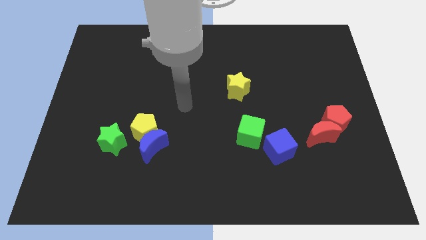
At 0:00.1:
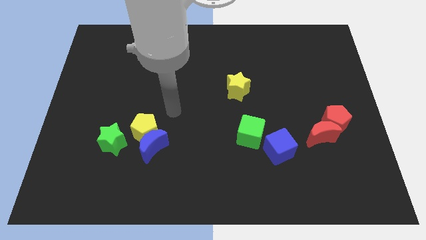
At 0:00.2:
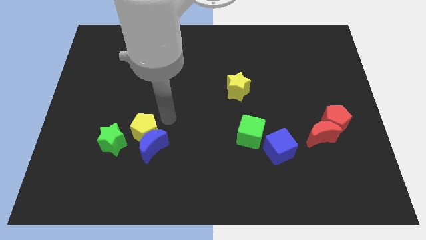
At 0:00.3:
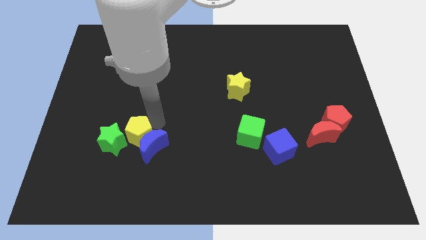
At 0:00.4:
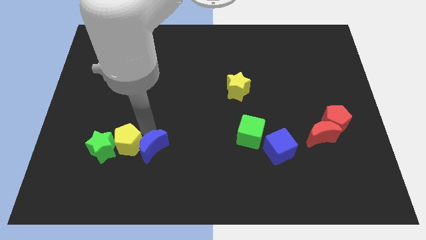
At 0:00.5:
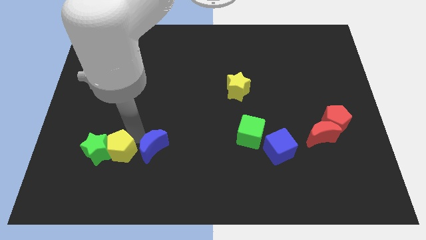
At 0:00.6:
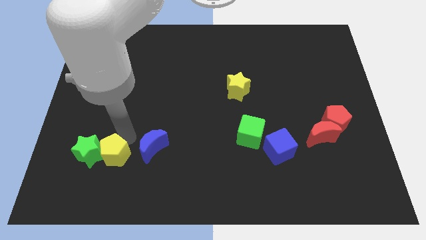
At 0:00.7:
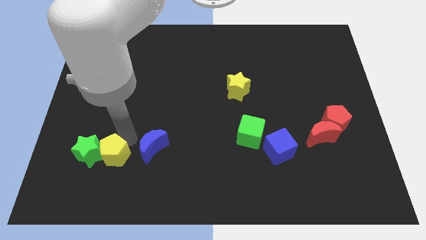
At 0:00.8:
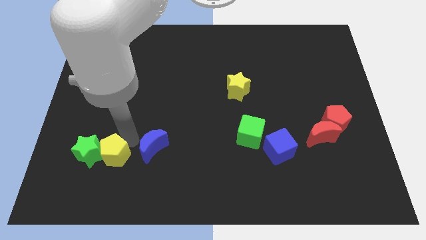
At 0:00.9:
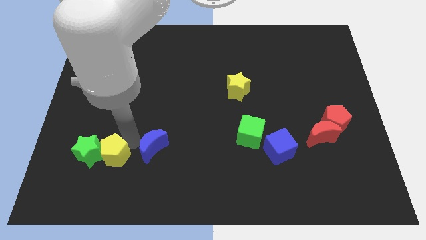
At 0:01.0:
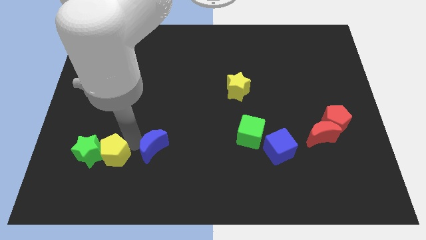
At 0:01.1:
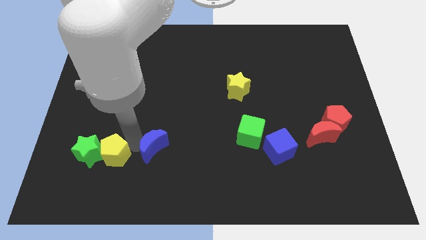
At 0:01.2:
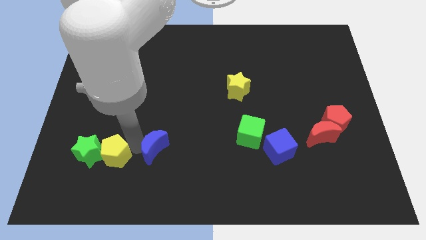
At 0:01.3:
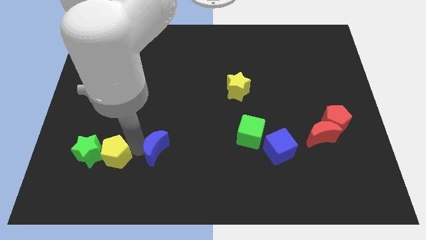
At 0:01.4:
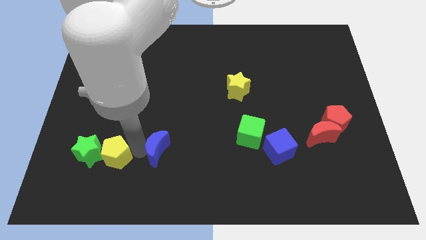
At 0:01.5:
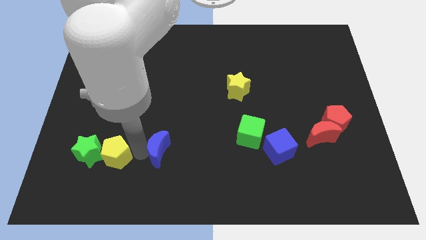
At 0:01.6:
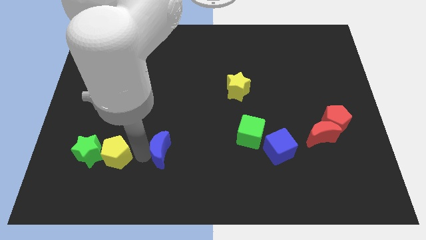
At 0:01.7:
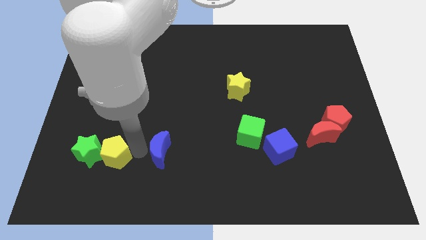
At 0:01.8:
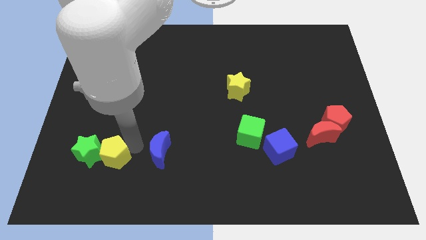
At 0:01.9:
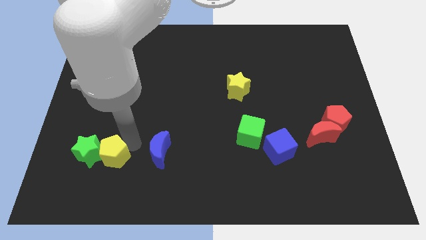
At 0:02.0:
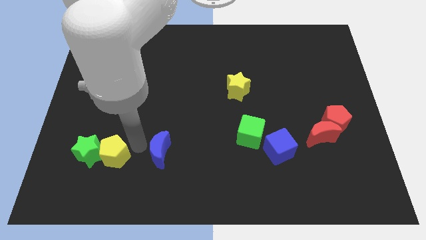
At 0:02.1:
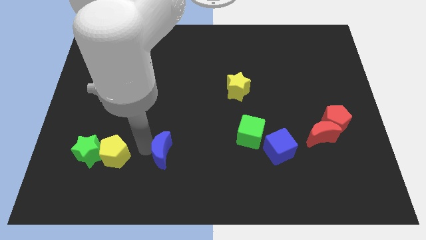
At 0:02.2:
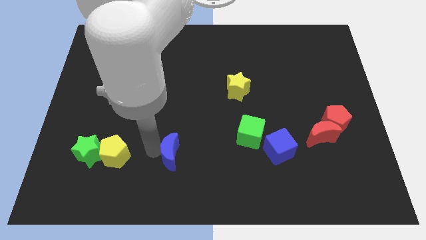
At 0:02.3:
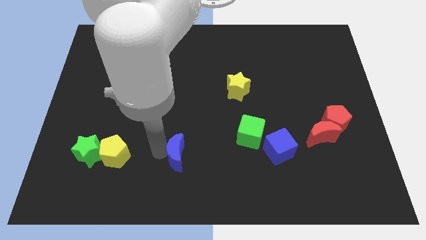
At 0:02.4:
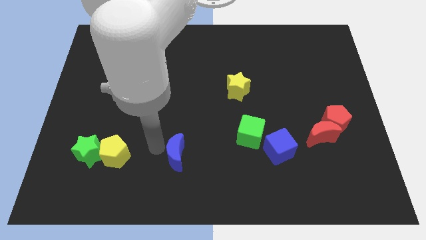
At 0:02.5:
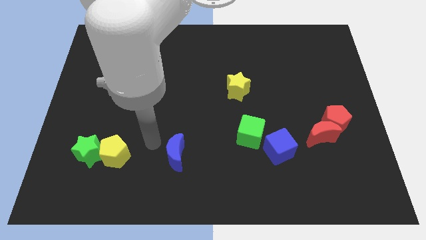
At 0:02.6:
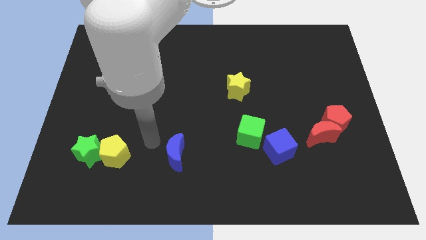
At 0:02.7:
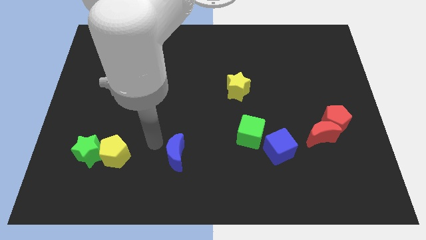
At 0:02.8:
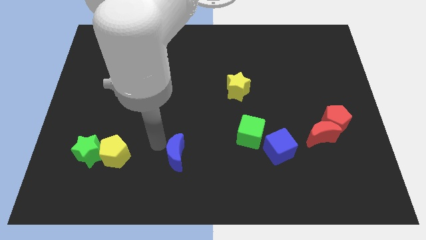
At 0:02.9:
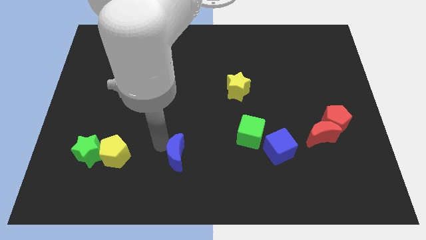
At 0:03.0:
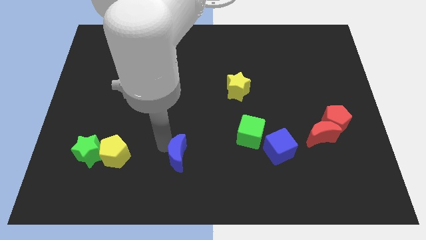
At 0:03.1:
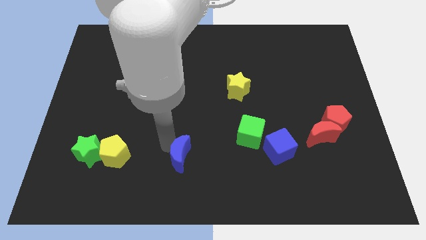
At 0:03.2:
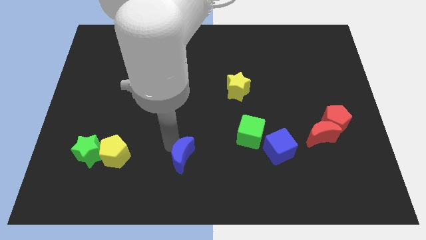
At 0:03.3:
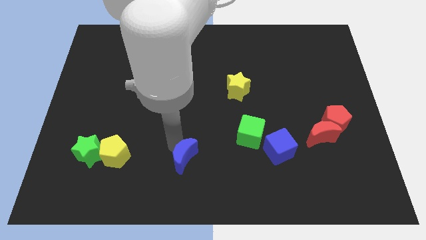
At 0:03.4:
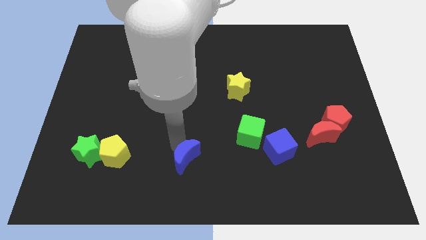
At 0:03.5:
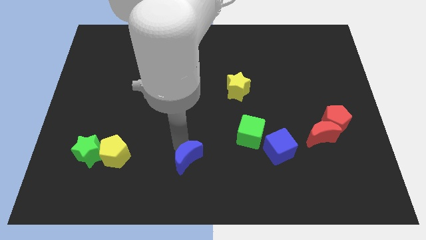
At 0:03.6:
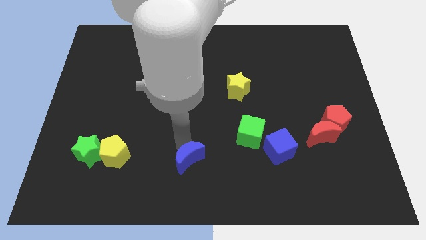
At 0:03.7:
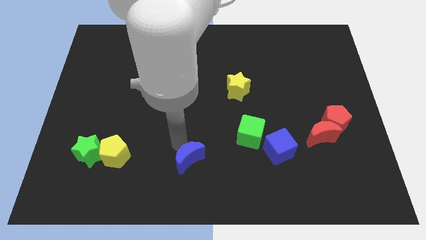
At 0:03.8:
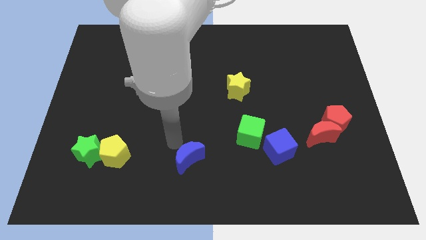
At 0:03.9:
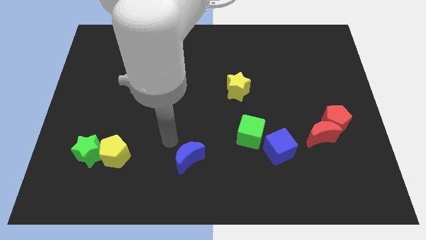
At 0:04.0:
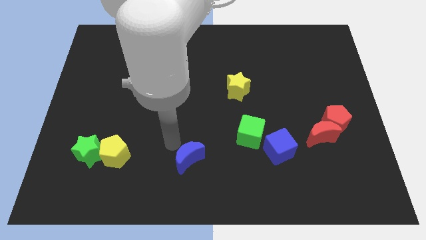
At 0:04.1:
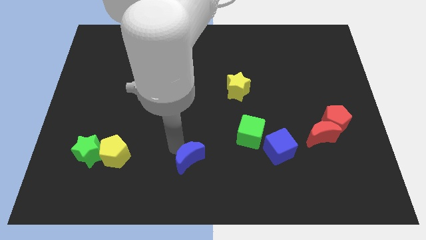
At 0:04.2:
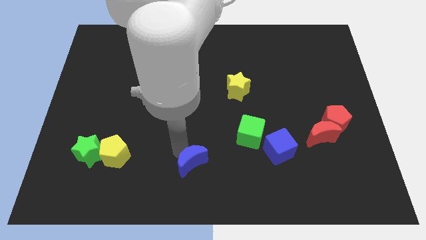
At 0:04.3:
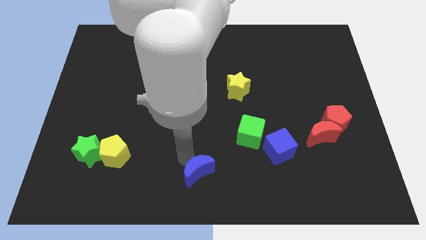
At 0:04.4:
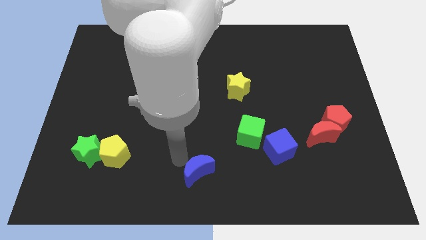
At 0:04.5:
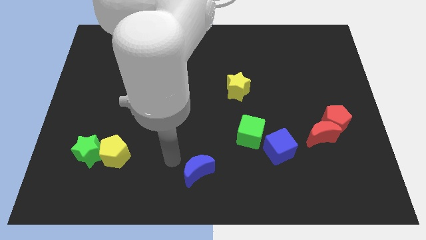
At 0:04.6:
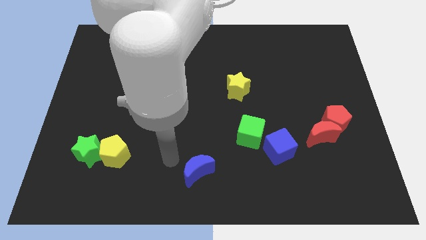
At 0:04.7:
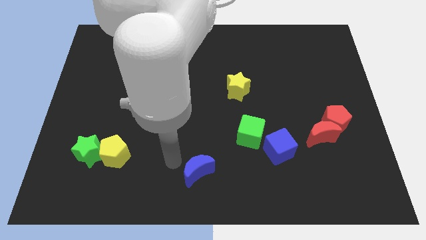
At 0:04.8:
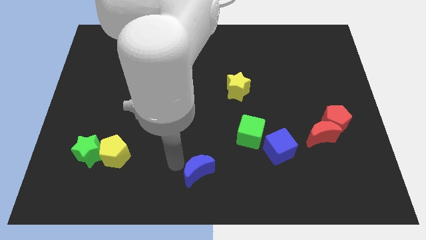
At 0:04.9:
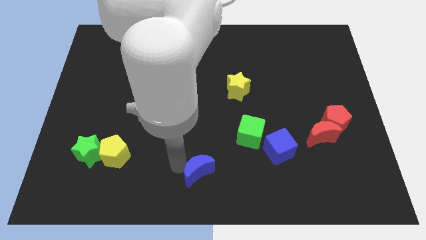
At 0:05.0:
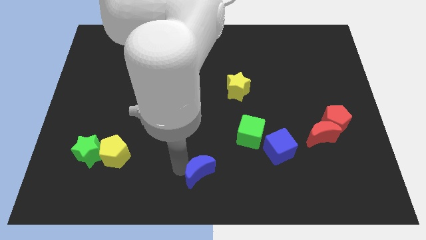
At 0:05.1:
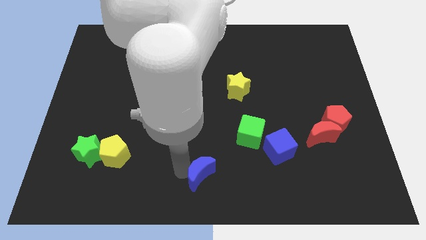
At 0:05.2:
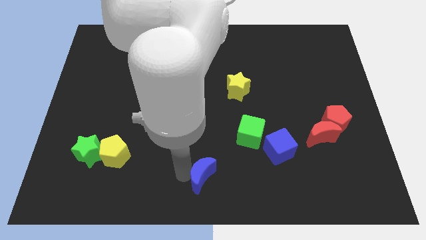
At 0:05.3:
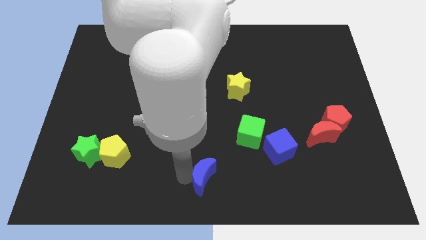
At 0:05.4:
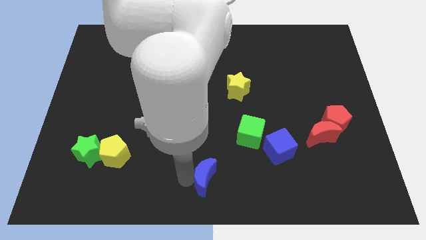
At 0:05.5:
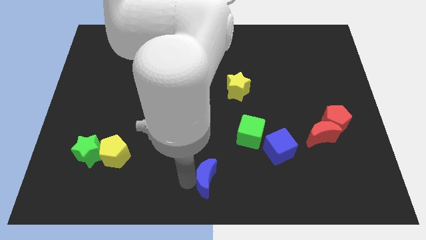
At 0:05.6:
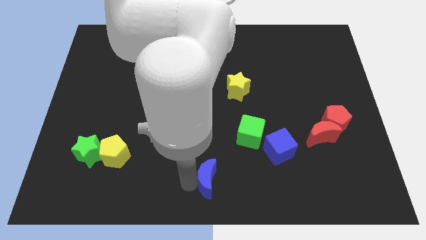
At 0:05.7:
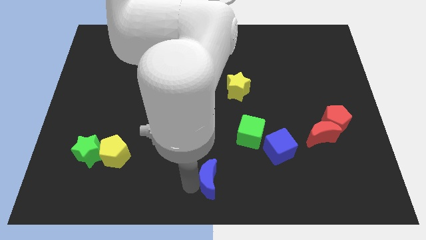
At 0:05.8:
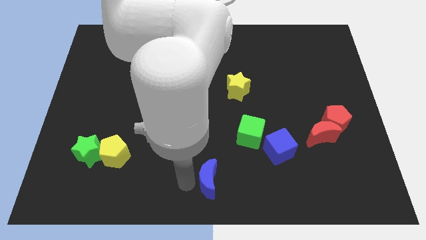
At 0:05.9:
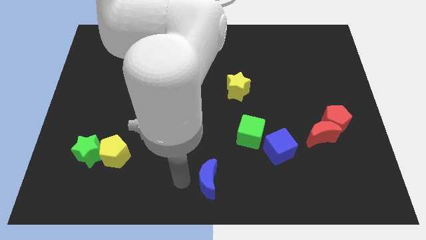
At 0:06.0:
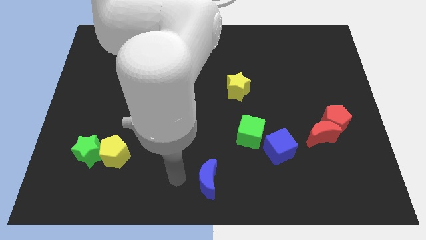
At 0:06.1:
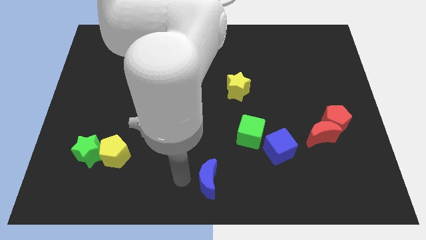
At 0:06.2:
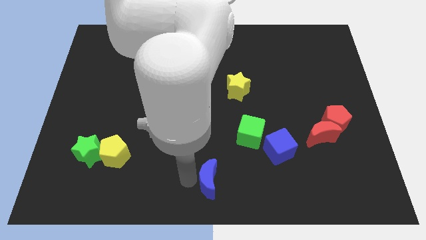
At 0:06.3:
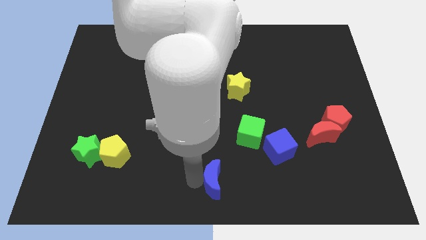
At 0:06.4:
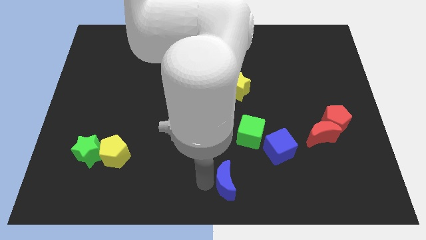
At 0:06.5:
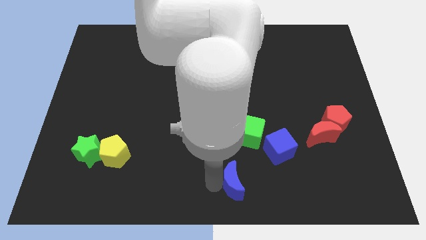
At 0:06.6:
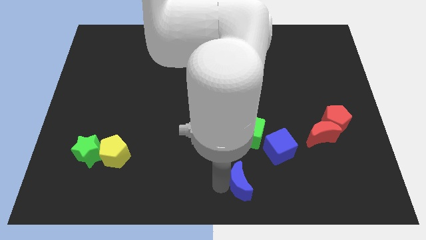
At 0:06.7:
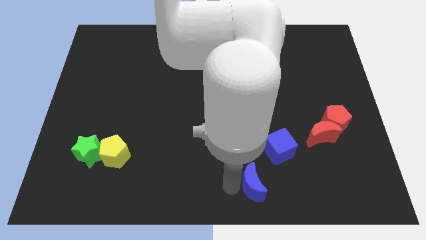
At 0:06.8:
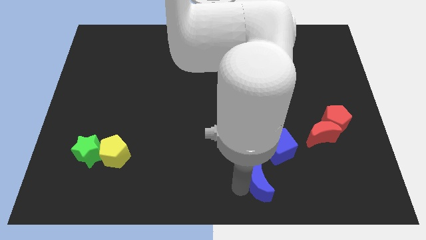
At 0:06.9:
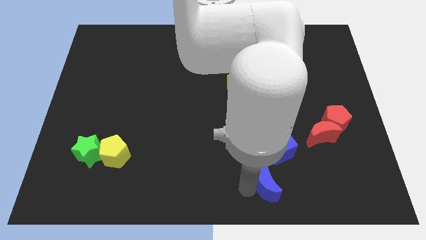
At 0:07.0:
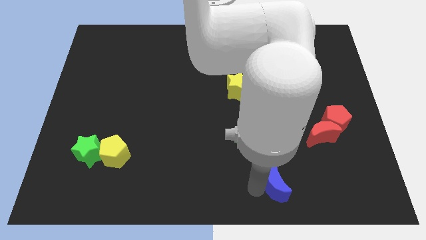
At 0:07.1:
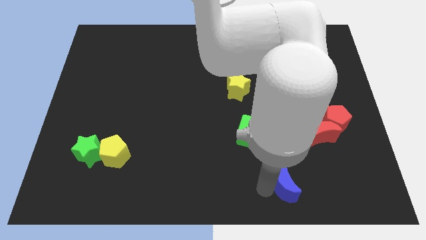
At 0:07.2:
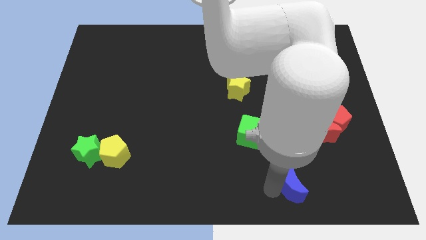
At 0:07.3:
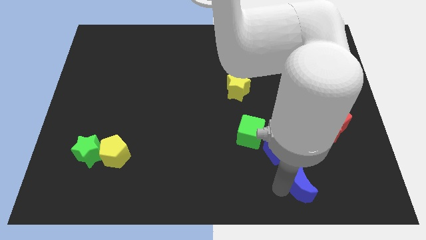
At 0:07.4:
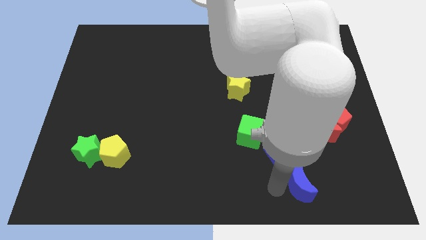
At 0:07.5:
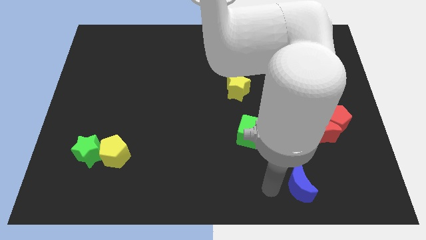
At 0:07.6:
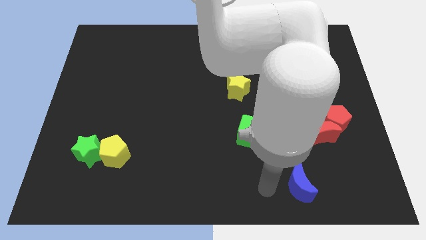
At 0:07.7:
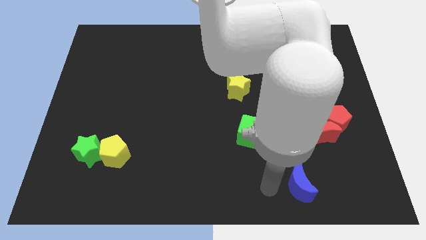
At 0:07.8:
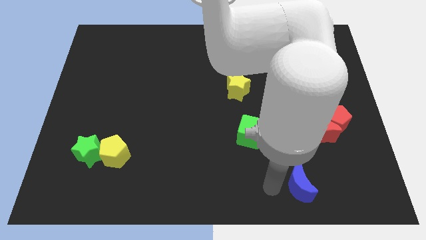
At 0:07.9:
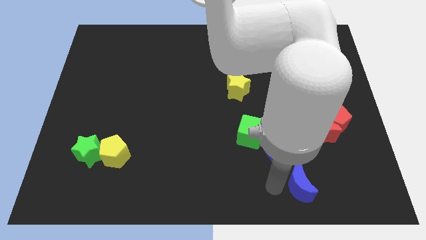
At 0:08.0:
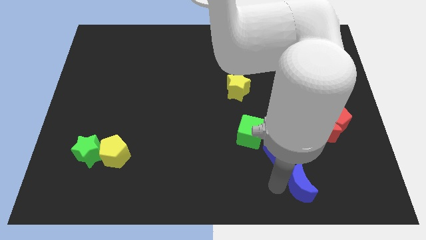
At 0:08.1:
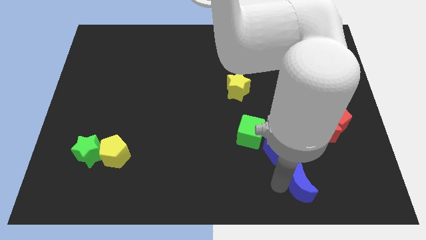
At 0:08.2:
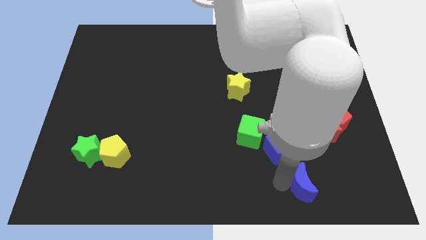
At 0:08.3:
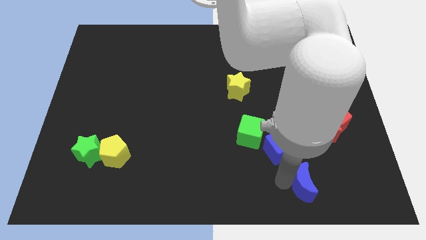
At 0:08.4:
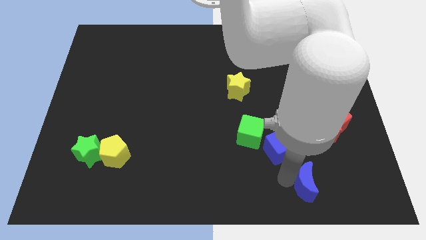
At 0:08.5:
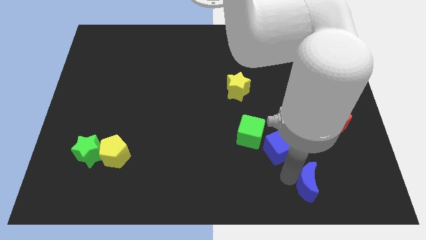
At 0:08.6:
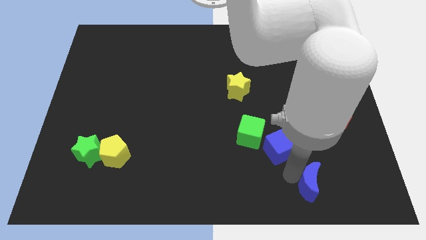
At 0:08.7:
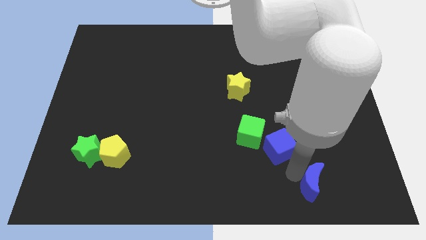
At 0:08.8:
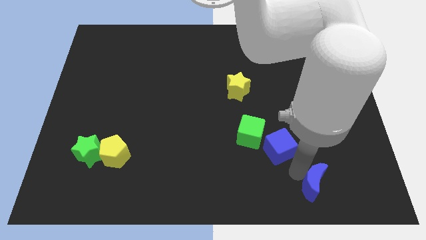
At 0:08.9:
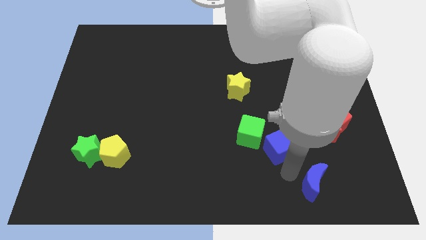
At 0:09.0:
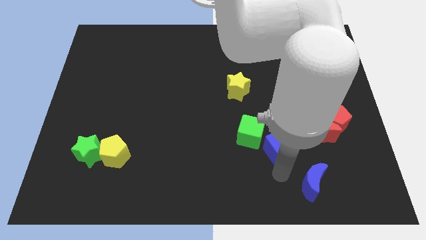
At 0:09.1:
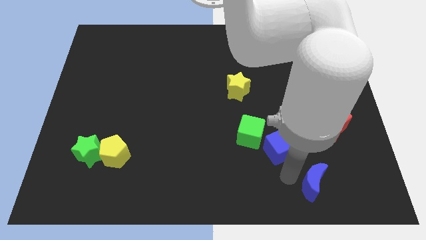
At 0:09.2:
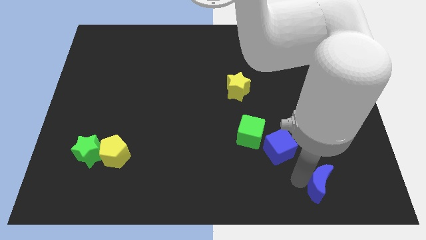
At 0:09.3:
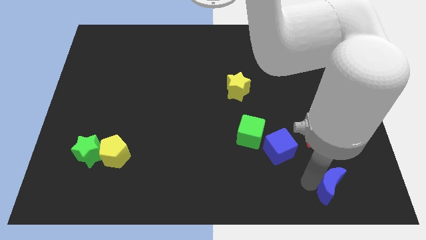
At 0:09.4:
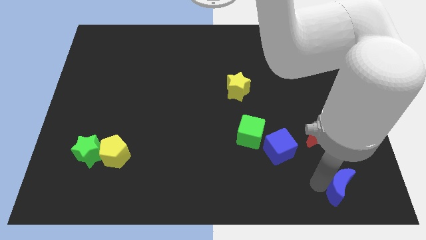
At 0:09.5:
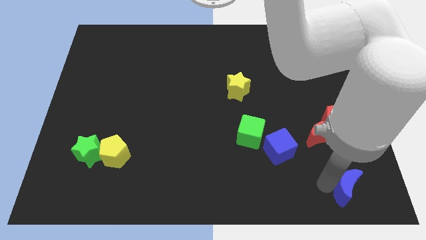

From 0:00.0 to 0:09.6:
slide the blue moon to the bottom right of the board
